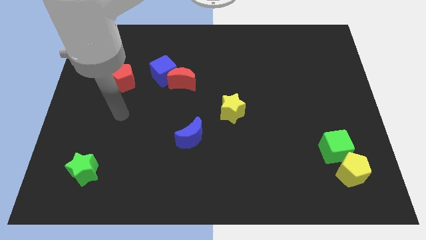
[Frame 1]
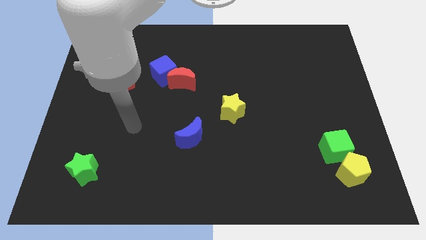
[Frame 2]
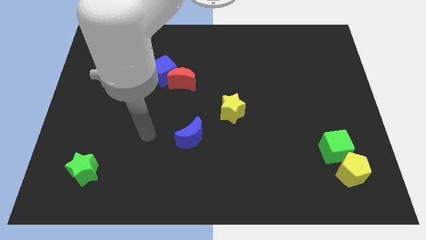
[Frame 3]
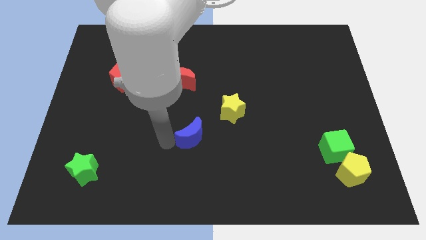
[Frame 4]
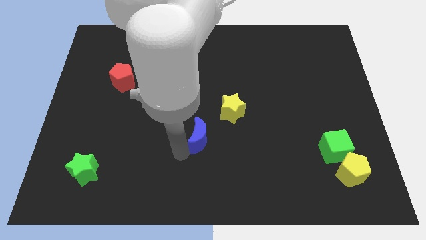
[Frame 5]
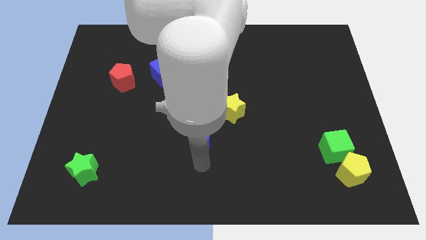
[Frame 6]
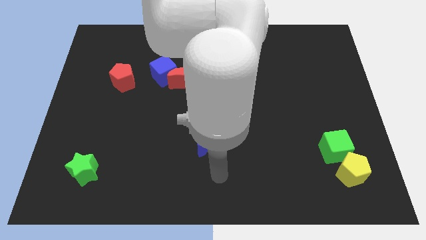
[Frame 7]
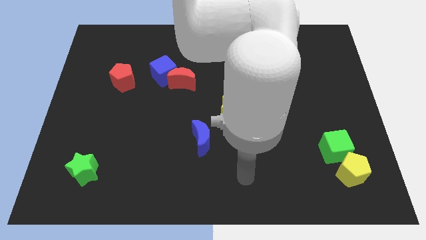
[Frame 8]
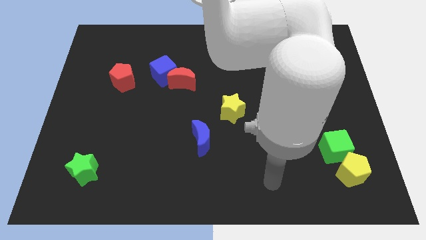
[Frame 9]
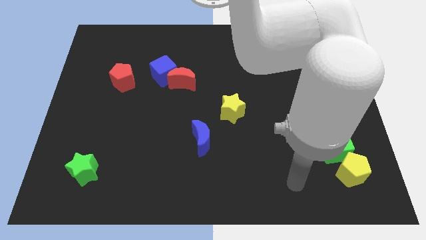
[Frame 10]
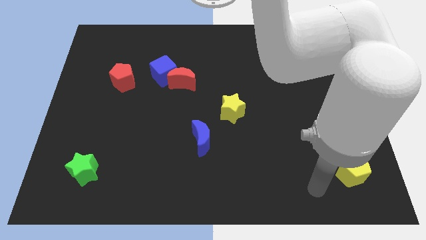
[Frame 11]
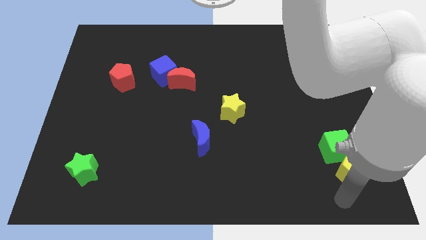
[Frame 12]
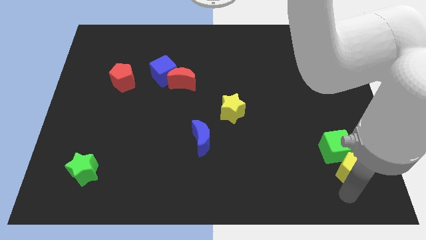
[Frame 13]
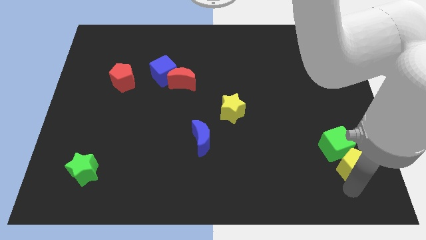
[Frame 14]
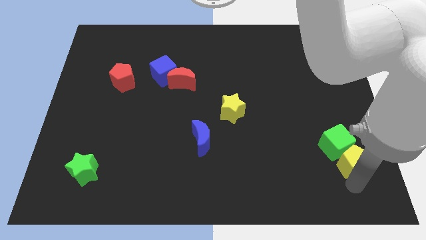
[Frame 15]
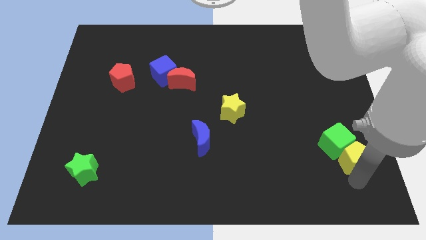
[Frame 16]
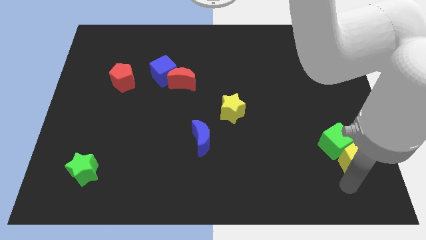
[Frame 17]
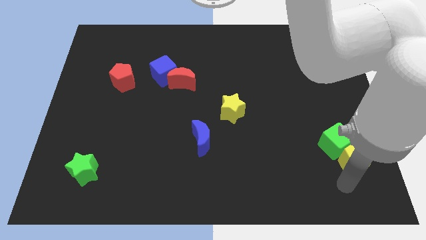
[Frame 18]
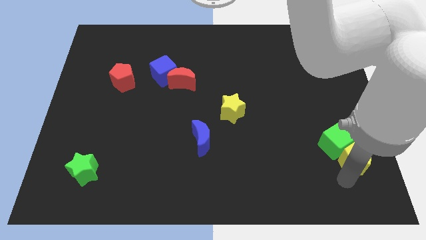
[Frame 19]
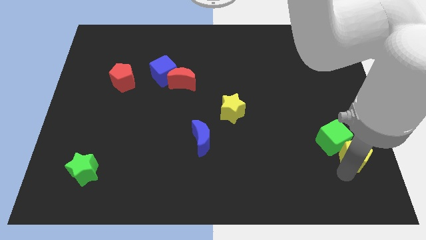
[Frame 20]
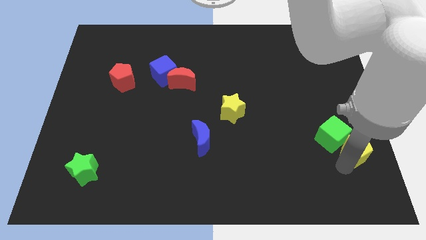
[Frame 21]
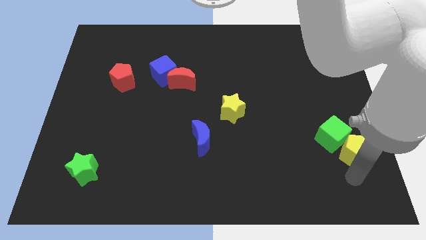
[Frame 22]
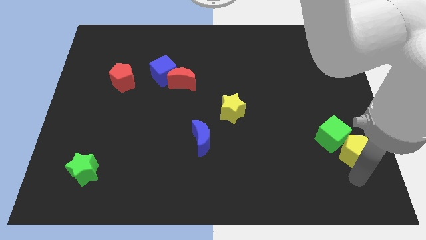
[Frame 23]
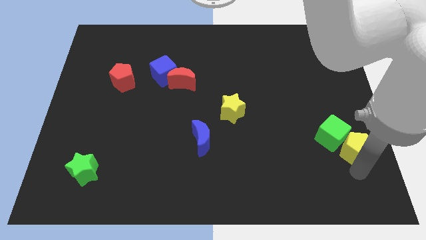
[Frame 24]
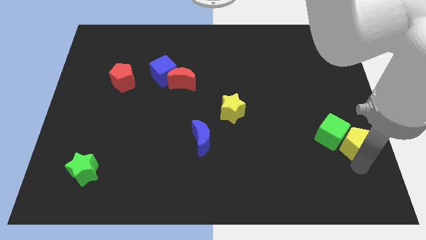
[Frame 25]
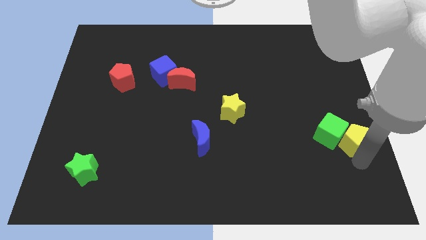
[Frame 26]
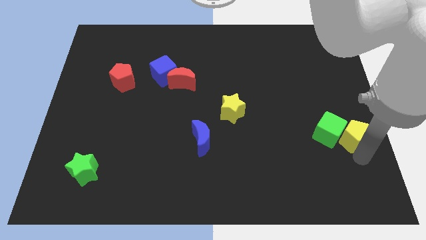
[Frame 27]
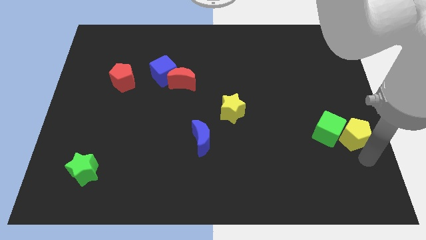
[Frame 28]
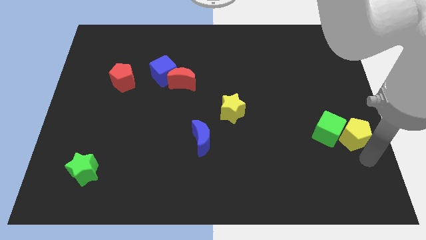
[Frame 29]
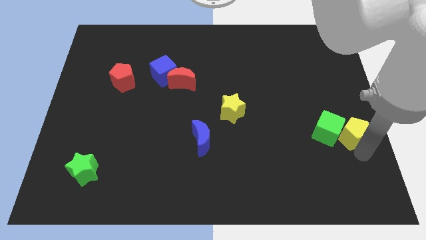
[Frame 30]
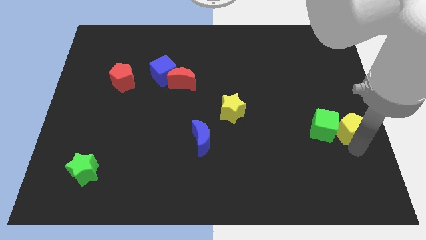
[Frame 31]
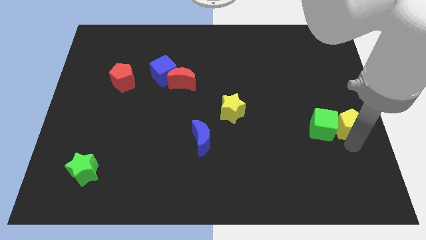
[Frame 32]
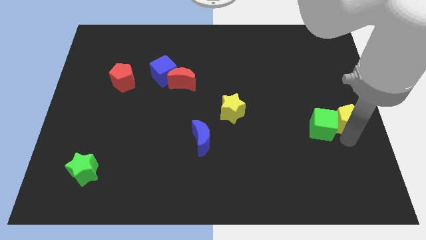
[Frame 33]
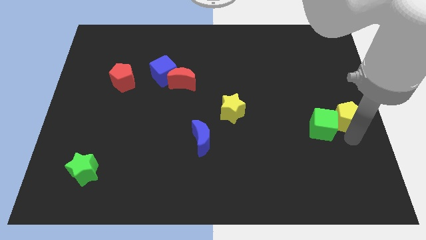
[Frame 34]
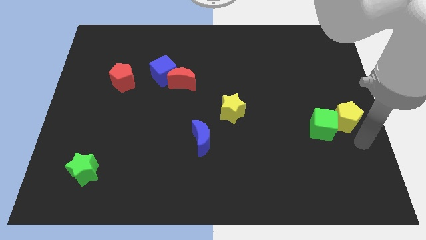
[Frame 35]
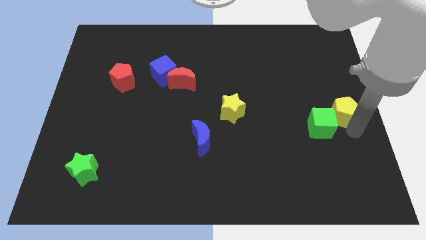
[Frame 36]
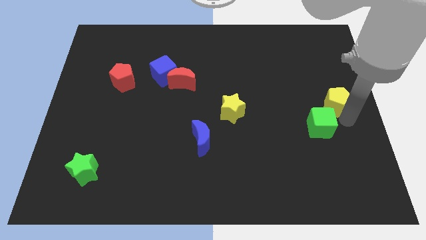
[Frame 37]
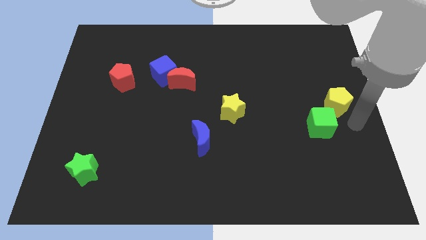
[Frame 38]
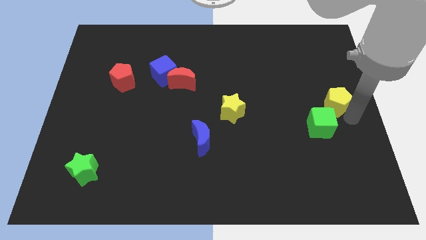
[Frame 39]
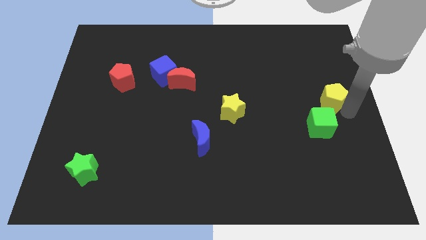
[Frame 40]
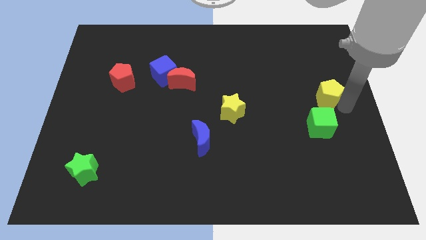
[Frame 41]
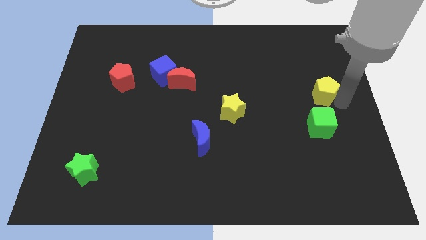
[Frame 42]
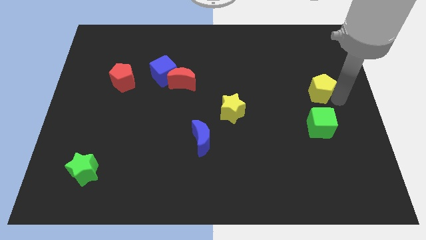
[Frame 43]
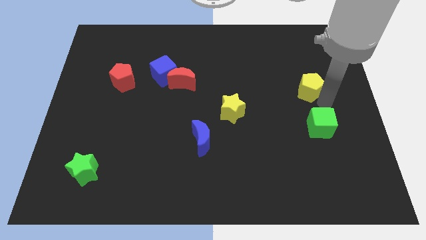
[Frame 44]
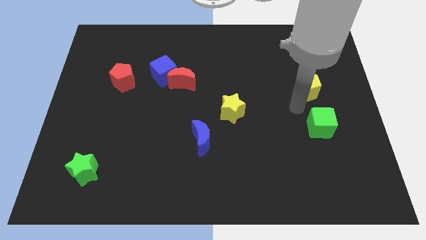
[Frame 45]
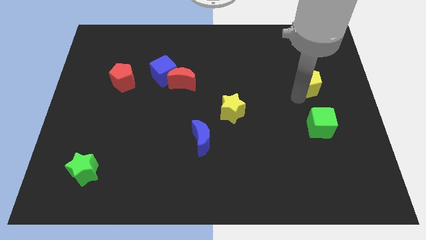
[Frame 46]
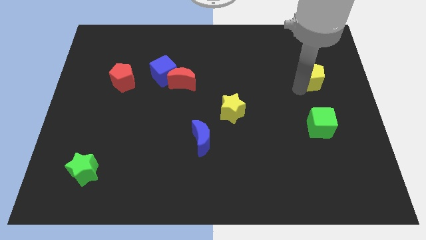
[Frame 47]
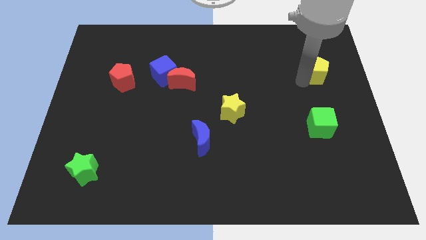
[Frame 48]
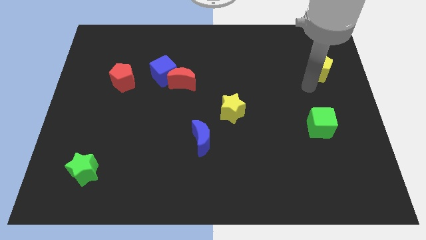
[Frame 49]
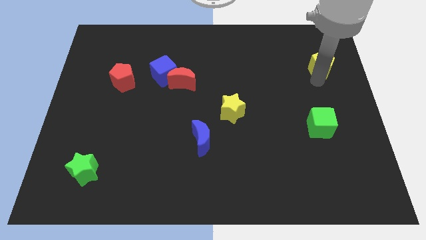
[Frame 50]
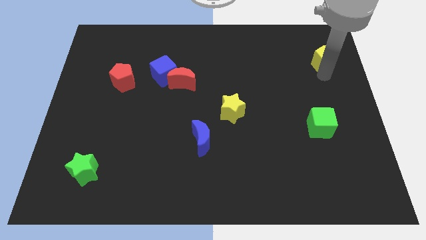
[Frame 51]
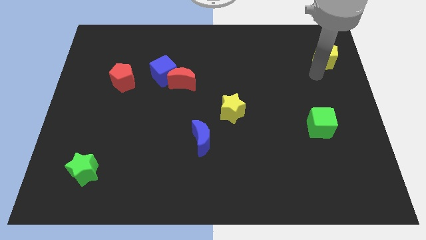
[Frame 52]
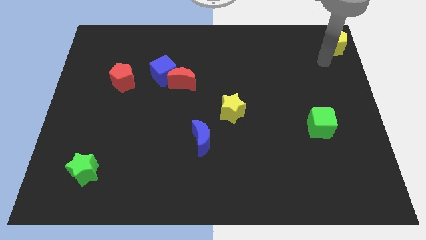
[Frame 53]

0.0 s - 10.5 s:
push the yellow pentagon to the top right of the board

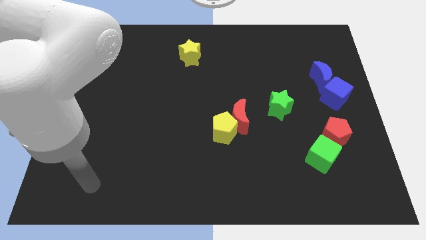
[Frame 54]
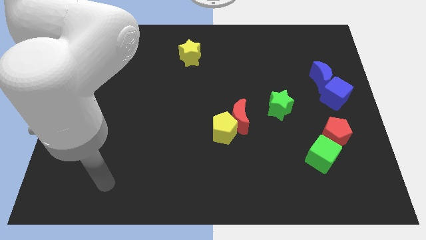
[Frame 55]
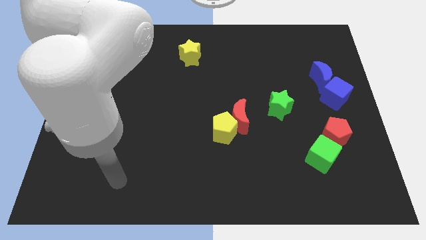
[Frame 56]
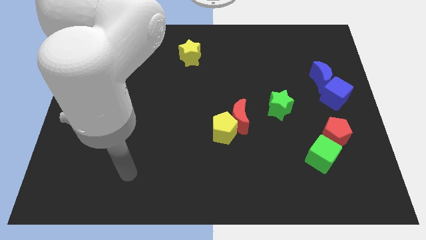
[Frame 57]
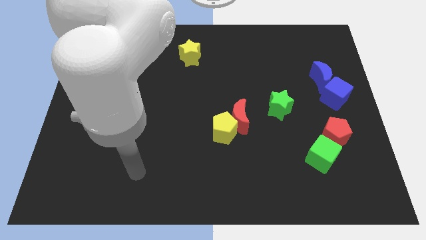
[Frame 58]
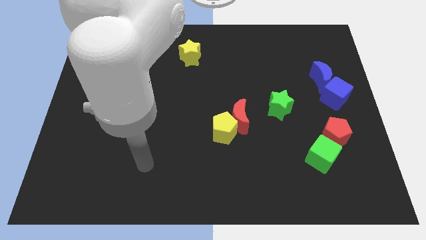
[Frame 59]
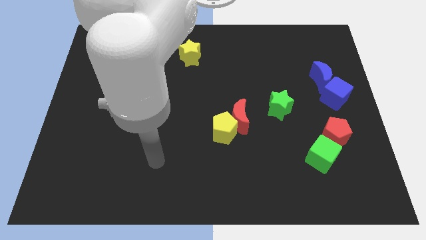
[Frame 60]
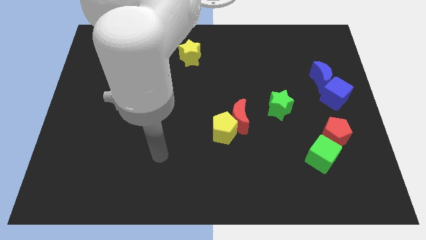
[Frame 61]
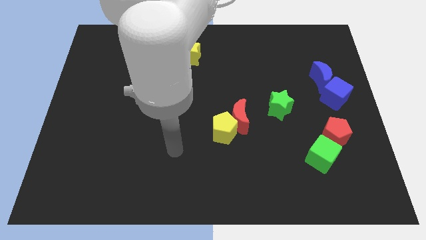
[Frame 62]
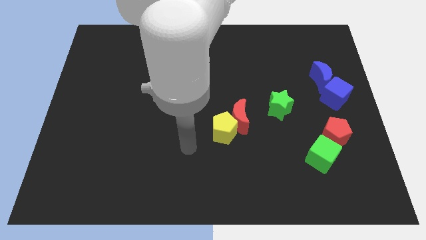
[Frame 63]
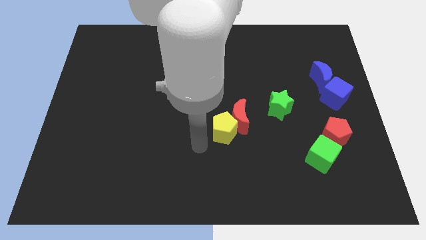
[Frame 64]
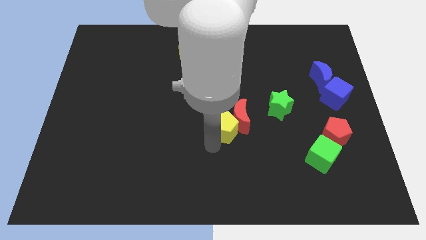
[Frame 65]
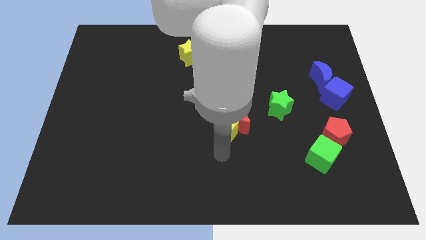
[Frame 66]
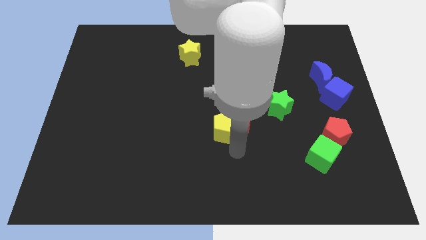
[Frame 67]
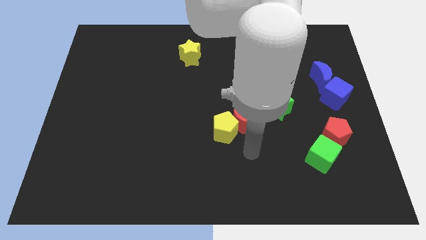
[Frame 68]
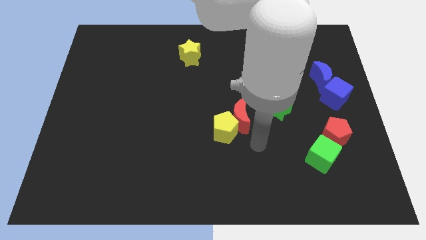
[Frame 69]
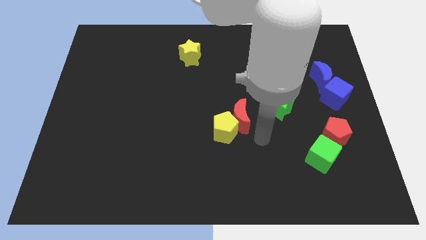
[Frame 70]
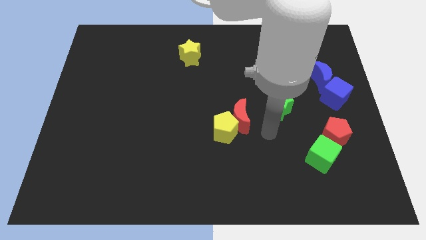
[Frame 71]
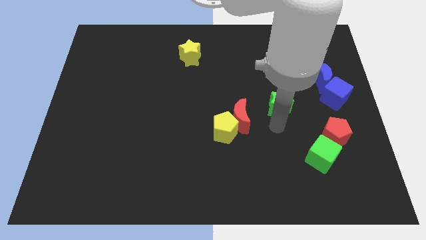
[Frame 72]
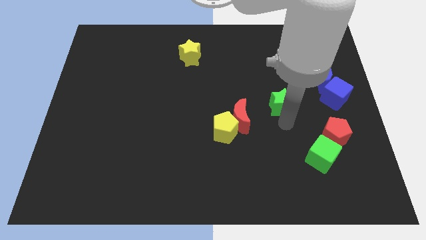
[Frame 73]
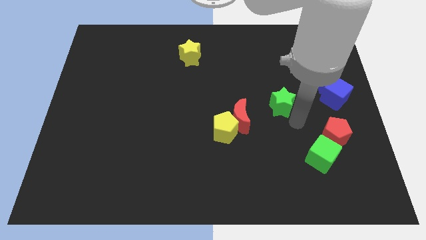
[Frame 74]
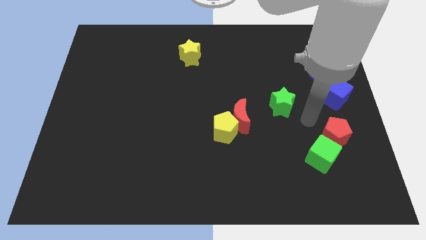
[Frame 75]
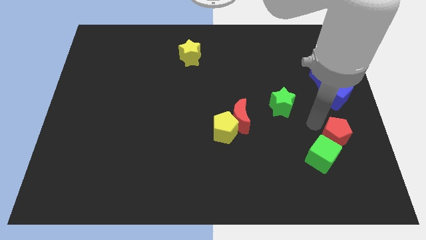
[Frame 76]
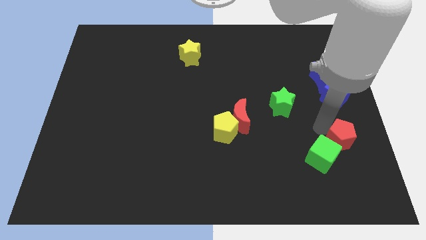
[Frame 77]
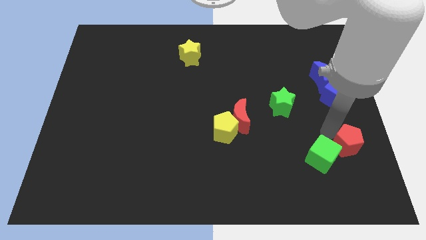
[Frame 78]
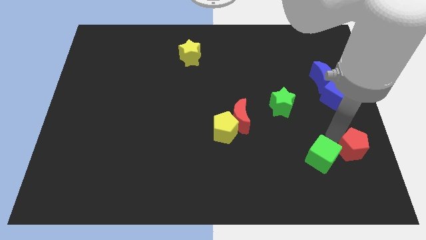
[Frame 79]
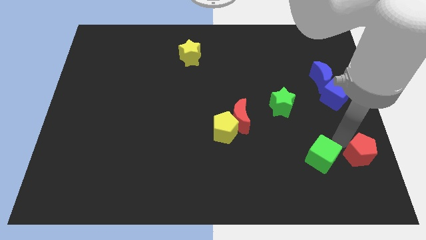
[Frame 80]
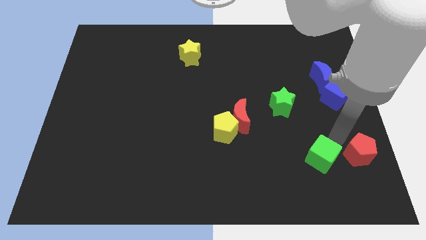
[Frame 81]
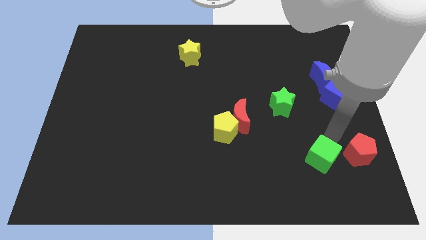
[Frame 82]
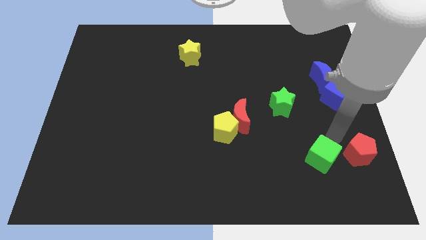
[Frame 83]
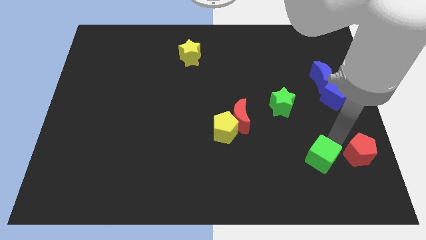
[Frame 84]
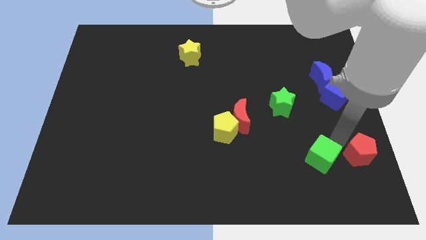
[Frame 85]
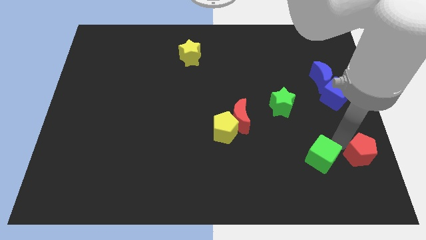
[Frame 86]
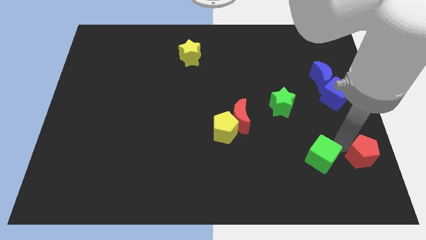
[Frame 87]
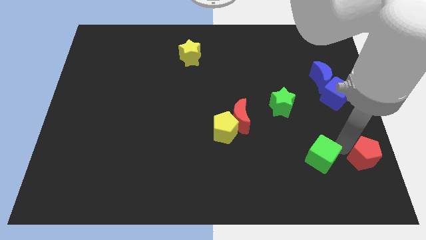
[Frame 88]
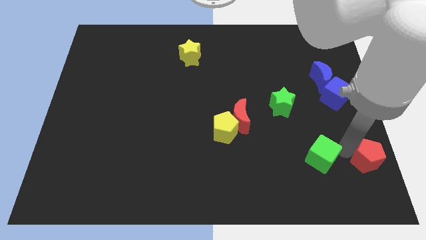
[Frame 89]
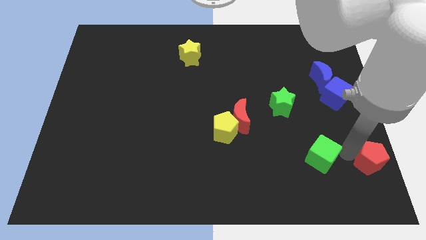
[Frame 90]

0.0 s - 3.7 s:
move the red pentagon to the lower right corner
